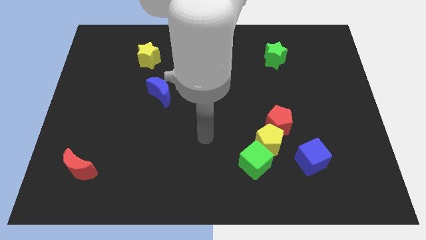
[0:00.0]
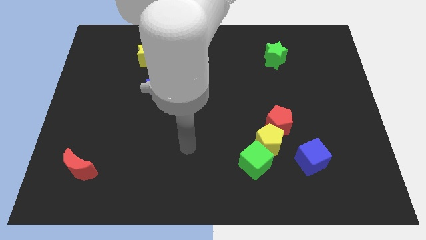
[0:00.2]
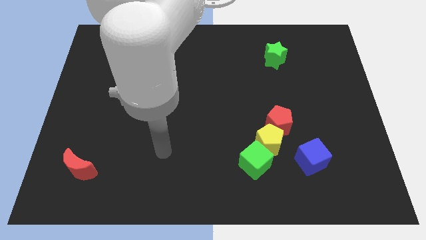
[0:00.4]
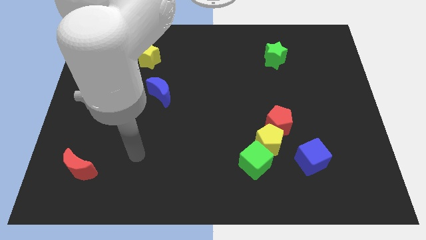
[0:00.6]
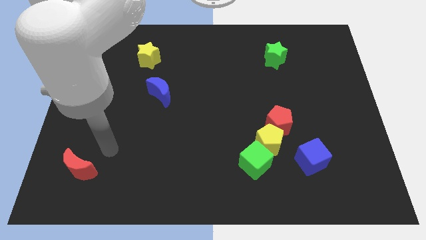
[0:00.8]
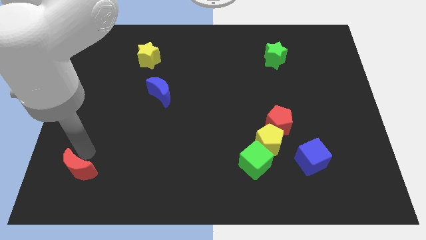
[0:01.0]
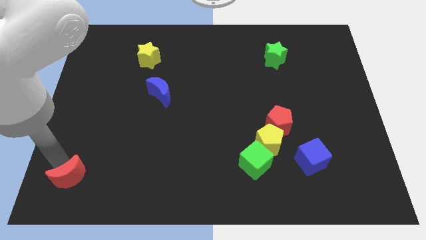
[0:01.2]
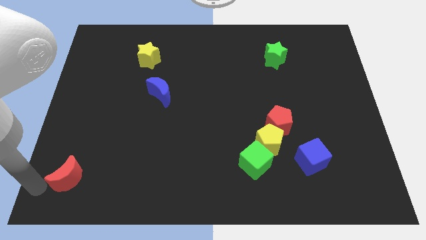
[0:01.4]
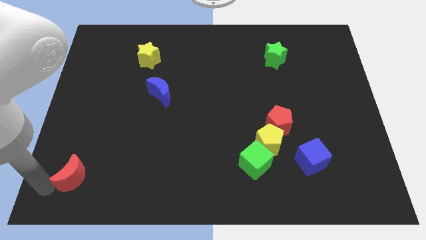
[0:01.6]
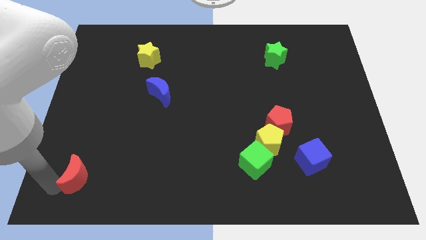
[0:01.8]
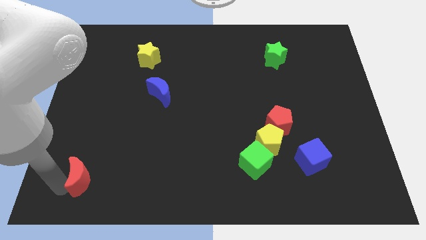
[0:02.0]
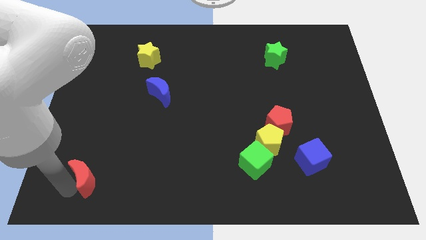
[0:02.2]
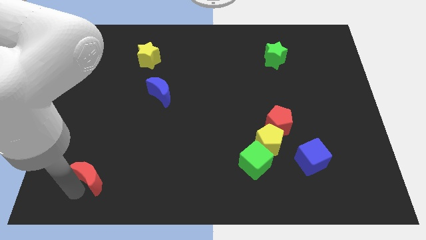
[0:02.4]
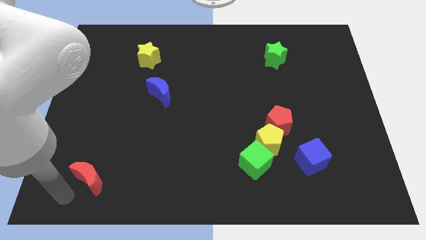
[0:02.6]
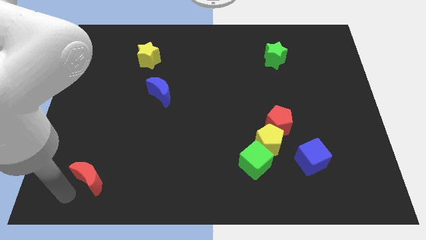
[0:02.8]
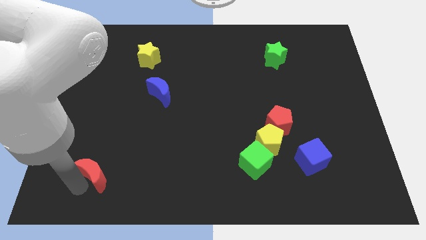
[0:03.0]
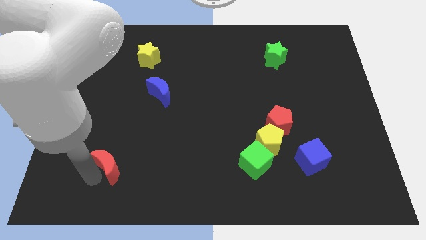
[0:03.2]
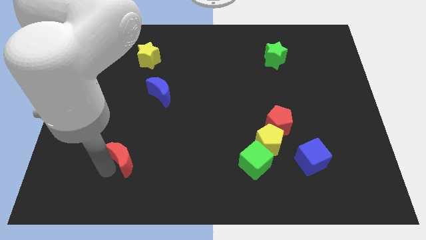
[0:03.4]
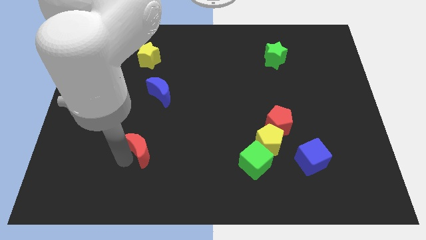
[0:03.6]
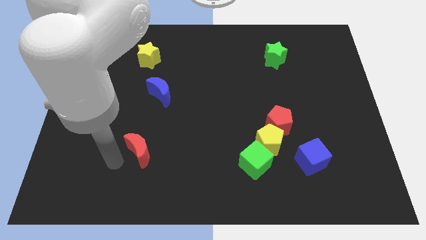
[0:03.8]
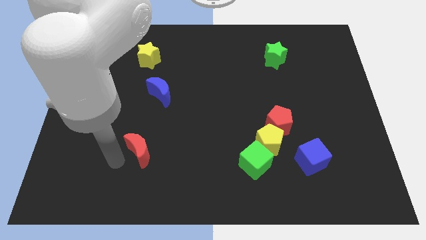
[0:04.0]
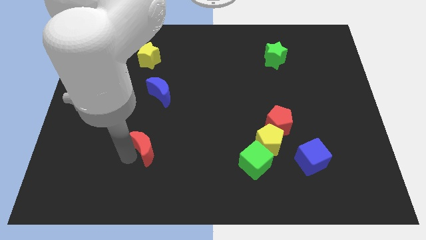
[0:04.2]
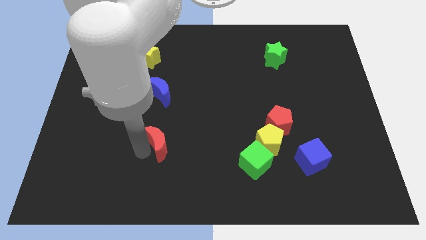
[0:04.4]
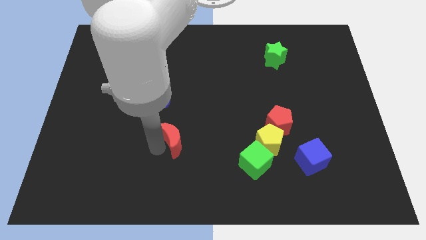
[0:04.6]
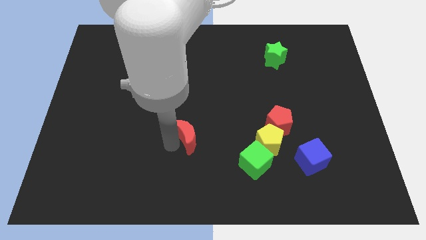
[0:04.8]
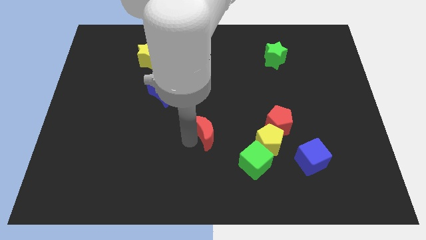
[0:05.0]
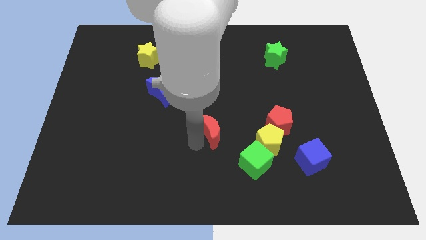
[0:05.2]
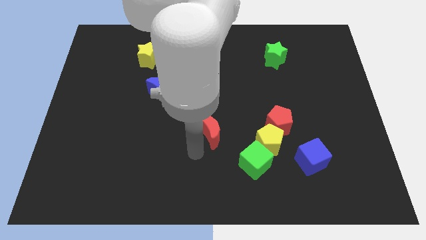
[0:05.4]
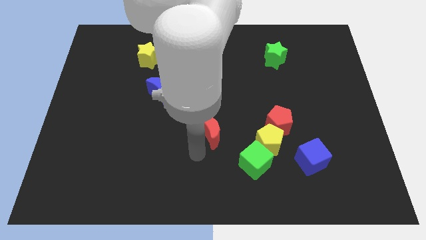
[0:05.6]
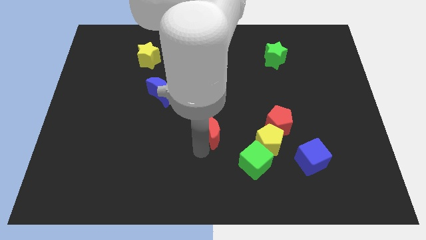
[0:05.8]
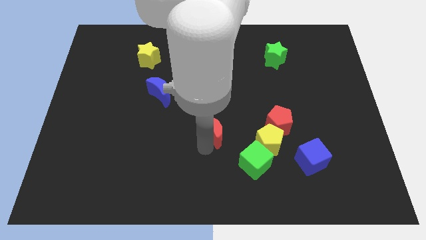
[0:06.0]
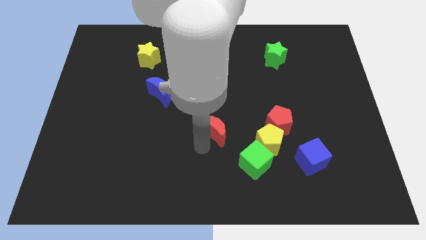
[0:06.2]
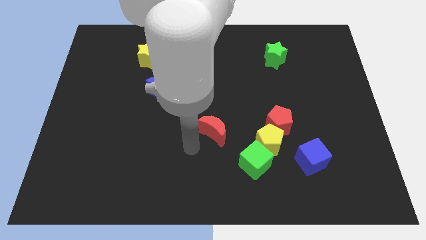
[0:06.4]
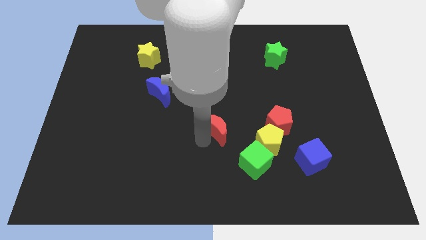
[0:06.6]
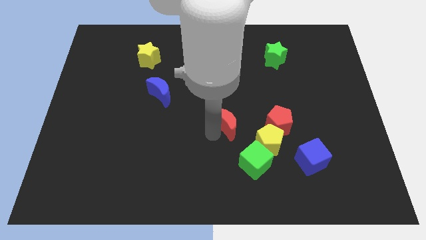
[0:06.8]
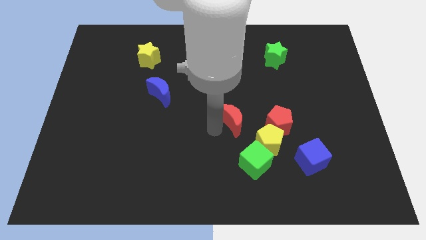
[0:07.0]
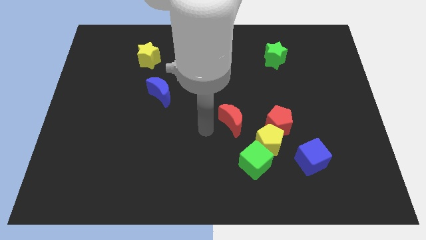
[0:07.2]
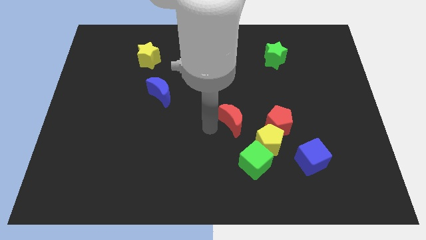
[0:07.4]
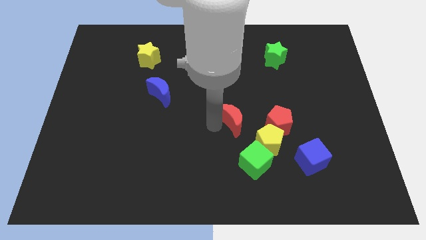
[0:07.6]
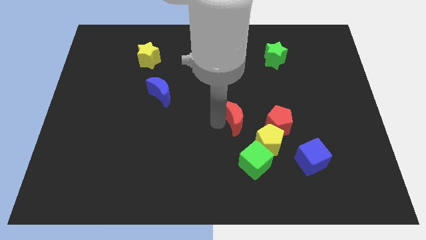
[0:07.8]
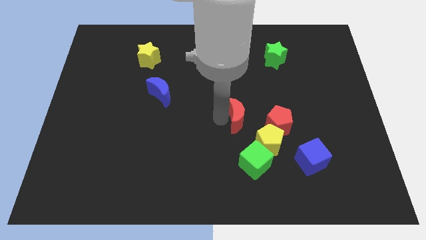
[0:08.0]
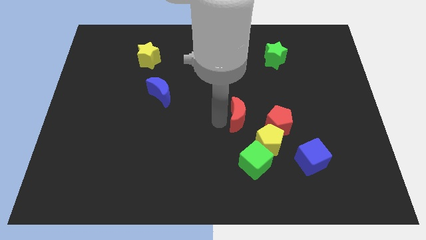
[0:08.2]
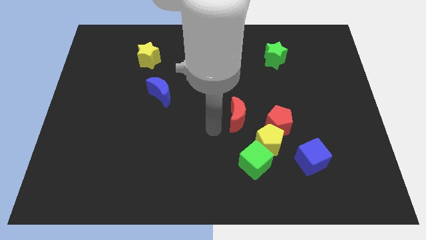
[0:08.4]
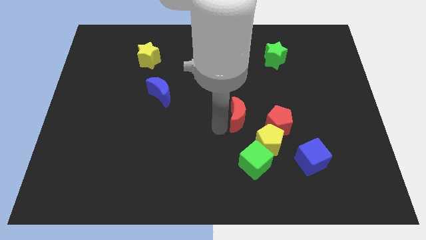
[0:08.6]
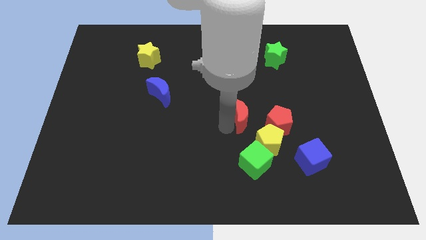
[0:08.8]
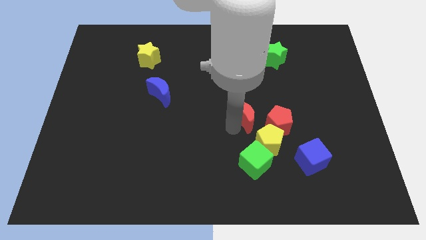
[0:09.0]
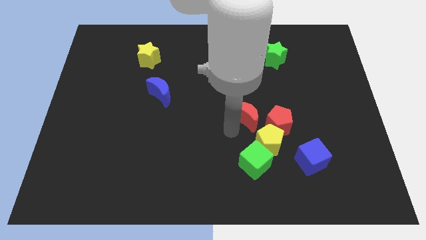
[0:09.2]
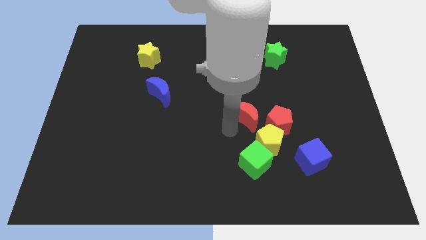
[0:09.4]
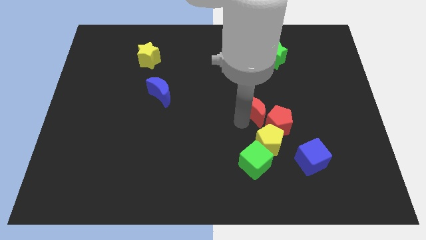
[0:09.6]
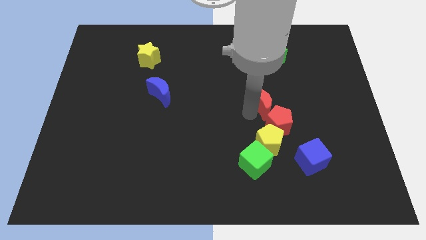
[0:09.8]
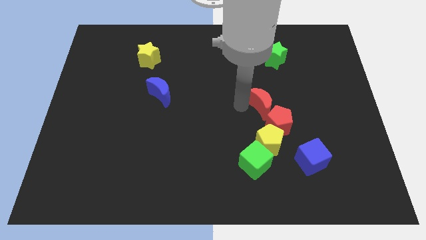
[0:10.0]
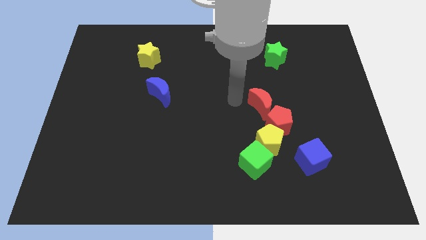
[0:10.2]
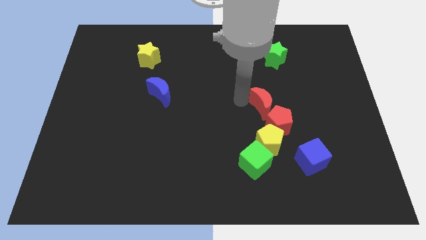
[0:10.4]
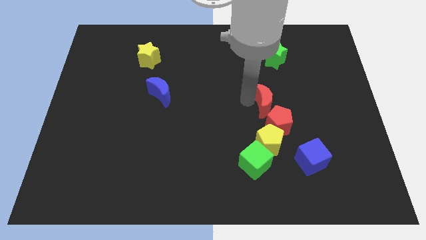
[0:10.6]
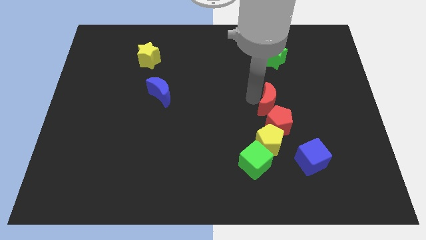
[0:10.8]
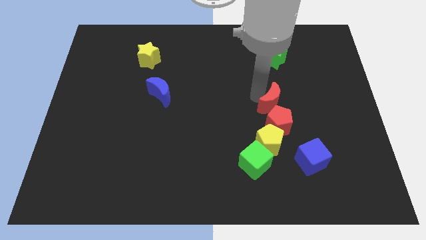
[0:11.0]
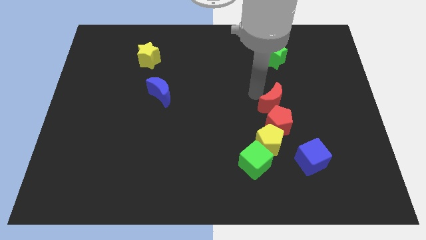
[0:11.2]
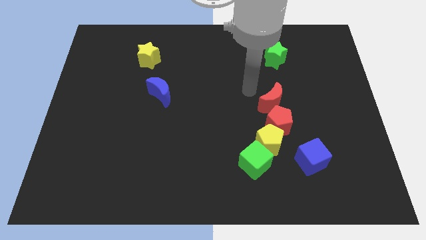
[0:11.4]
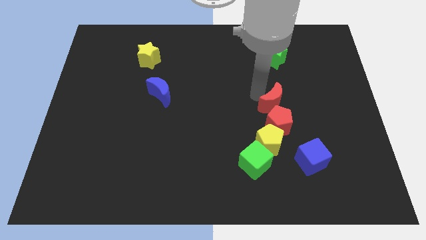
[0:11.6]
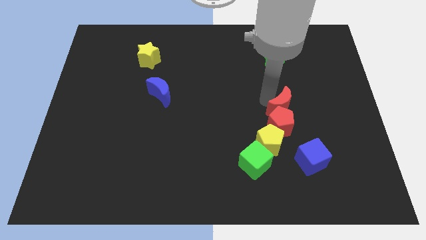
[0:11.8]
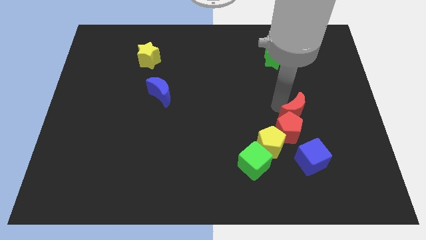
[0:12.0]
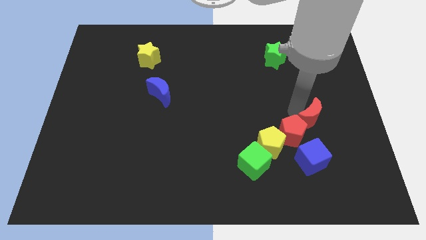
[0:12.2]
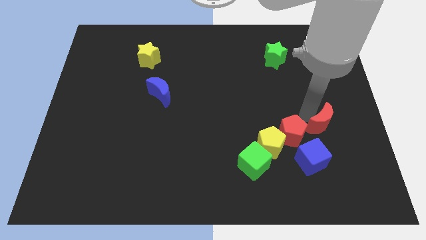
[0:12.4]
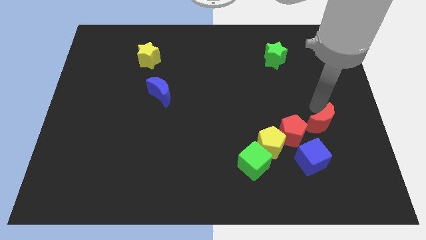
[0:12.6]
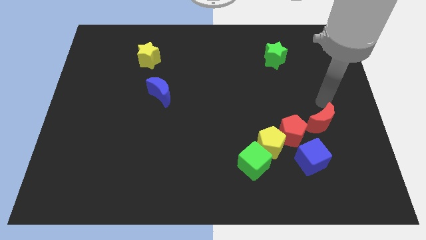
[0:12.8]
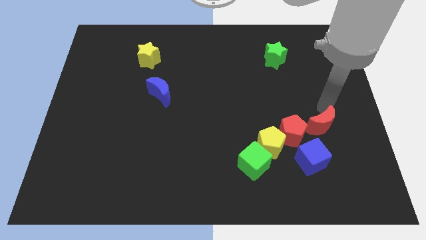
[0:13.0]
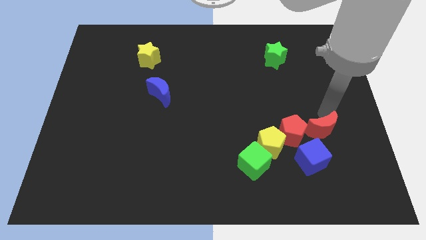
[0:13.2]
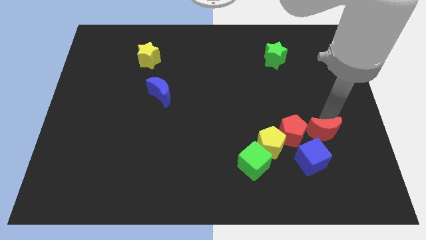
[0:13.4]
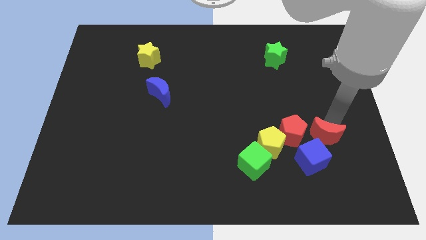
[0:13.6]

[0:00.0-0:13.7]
put the red moon diagonally down and to the right of the red pentagon
